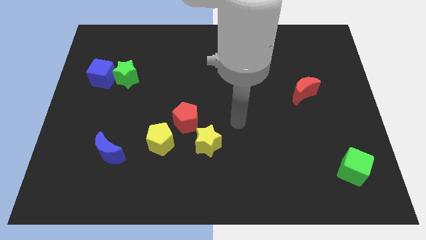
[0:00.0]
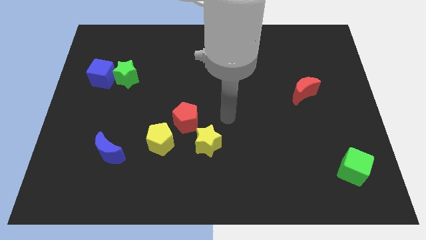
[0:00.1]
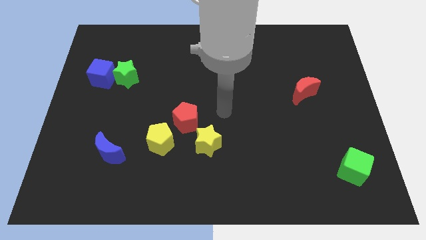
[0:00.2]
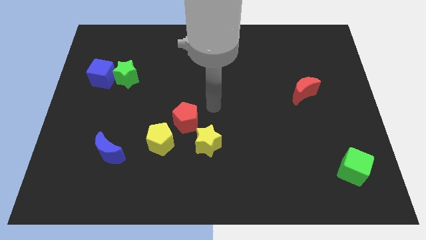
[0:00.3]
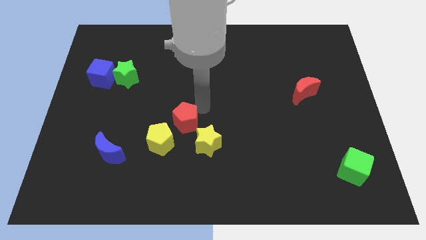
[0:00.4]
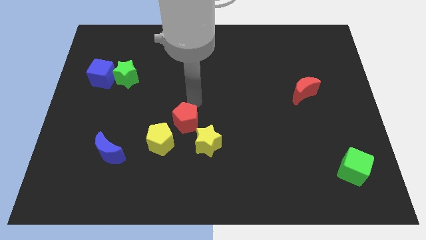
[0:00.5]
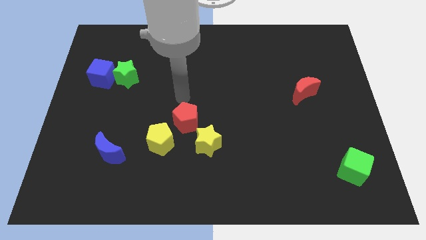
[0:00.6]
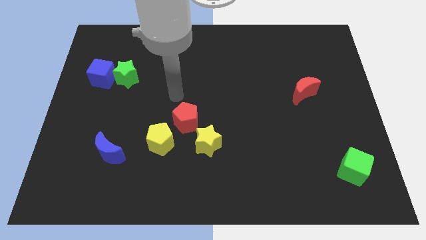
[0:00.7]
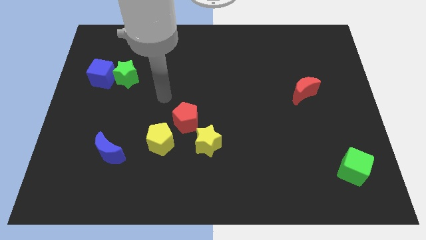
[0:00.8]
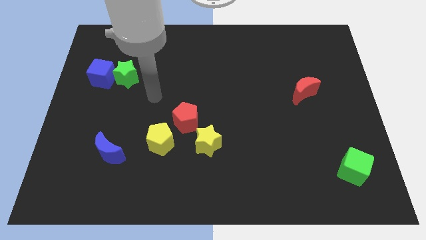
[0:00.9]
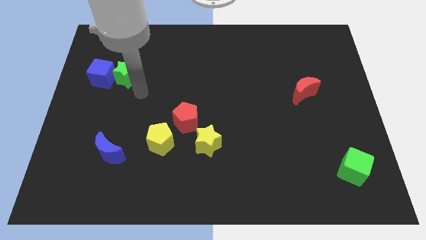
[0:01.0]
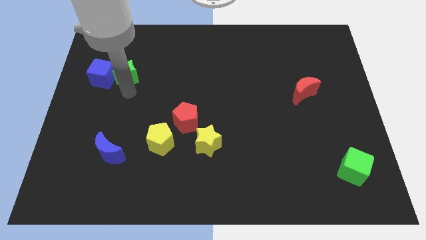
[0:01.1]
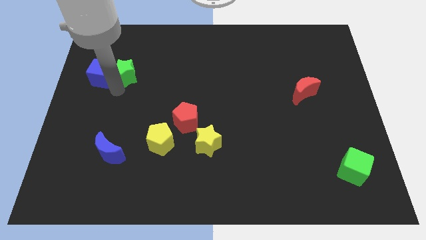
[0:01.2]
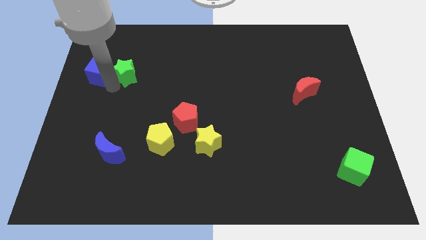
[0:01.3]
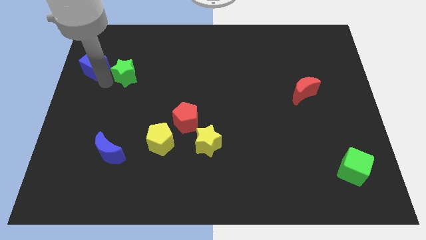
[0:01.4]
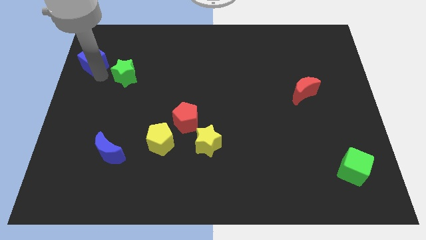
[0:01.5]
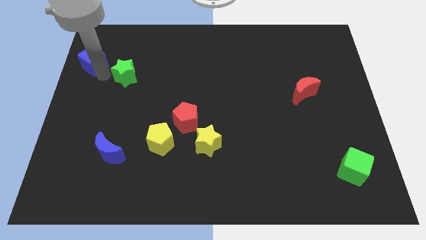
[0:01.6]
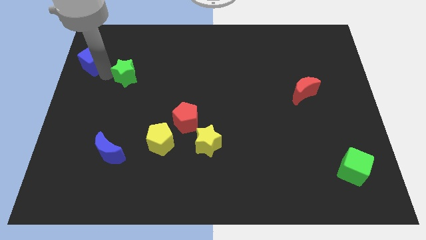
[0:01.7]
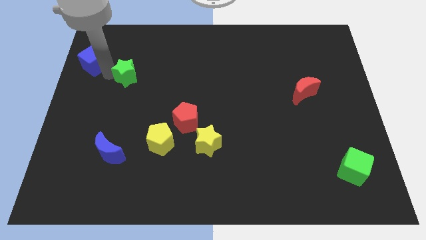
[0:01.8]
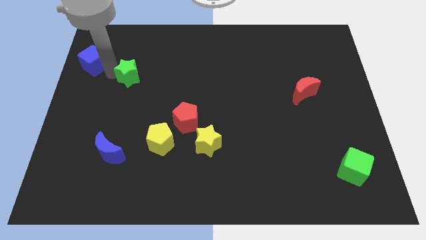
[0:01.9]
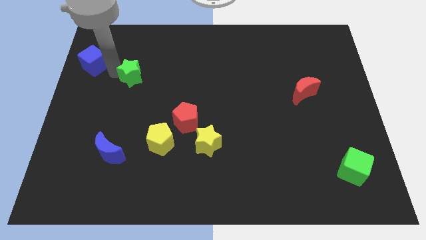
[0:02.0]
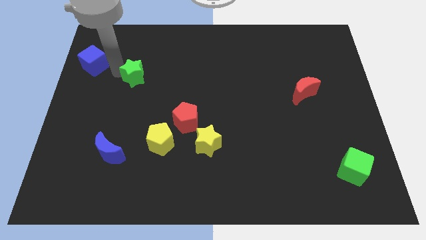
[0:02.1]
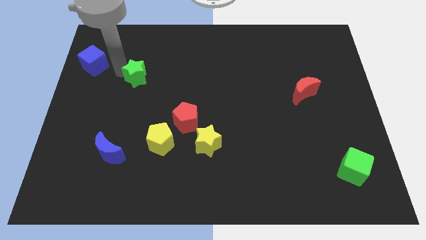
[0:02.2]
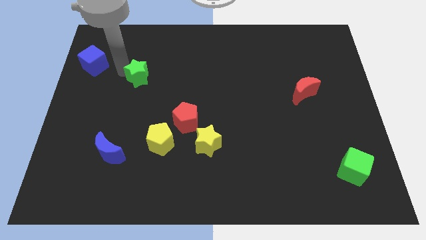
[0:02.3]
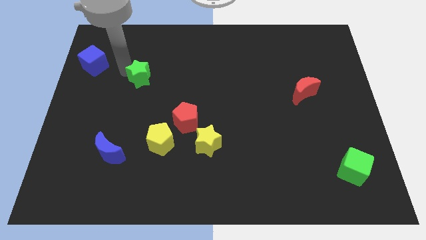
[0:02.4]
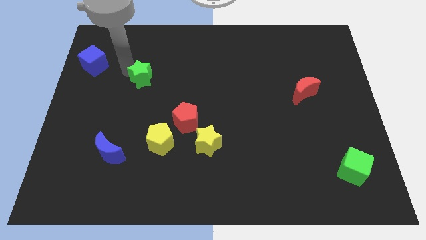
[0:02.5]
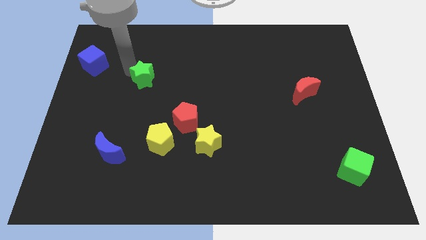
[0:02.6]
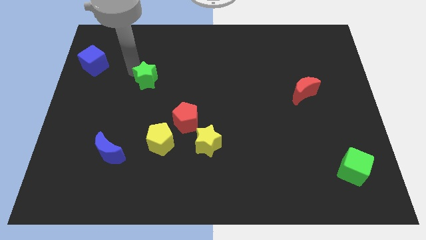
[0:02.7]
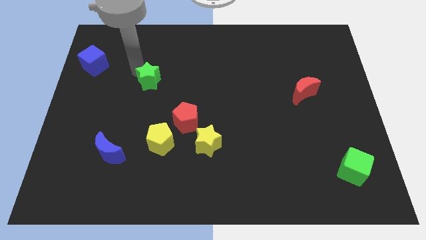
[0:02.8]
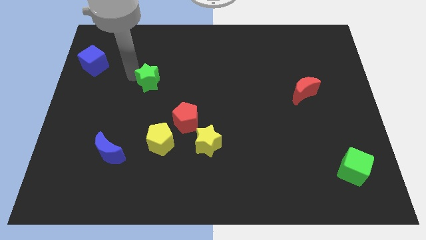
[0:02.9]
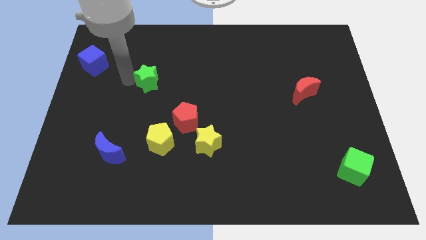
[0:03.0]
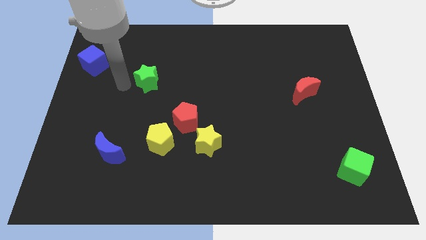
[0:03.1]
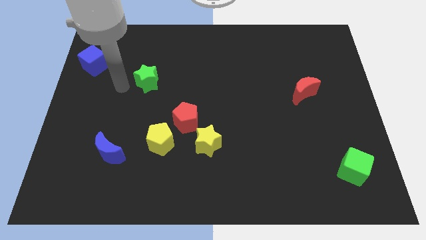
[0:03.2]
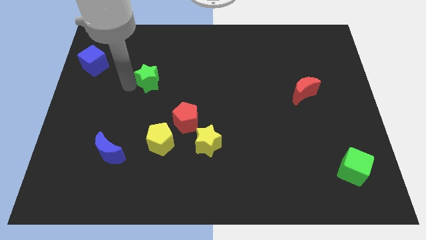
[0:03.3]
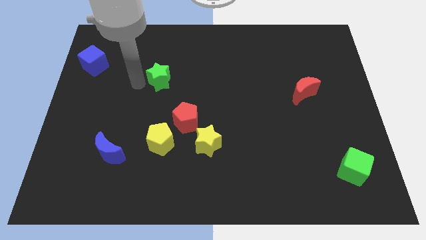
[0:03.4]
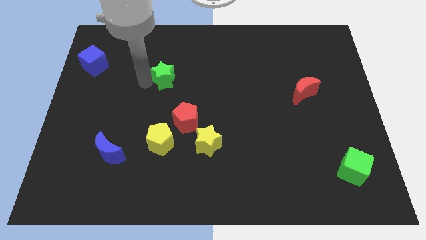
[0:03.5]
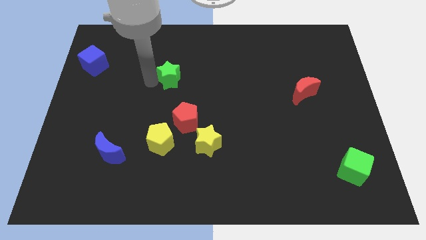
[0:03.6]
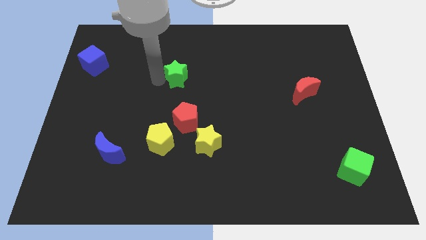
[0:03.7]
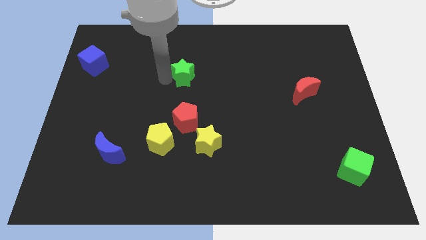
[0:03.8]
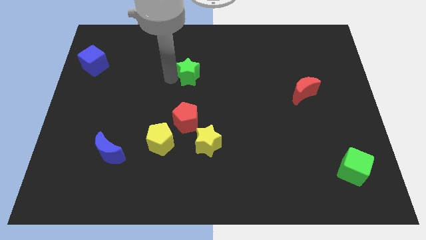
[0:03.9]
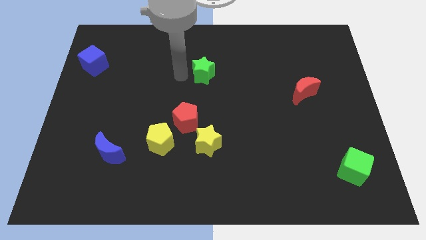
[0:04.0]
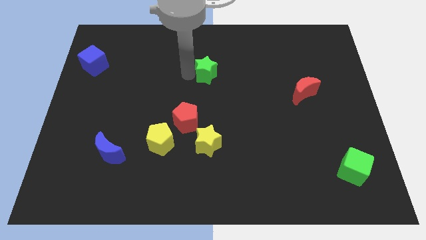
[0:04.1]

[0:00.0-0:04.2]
slide the green star to the right

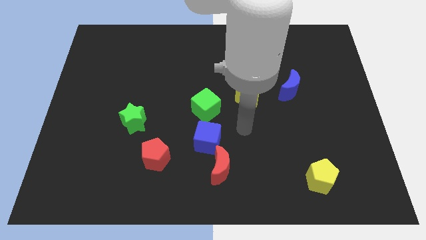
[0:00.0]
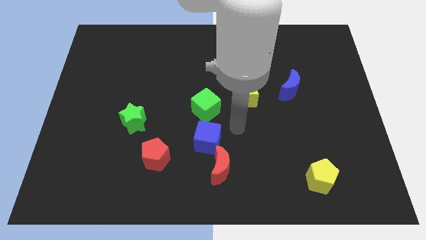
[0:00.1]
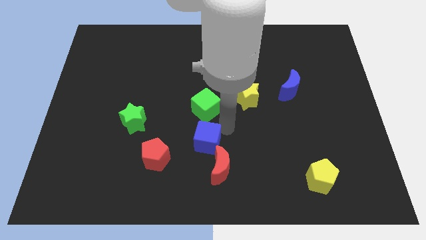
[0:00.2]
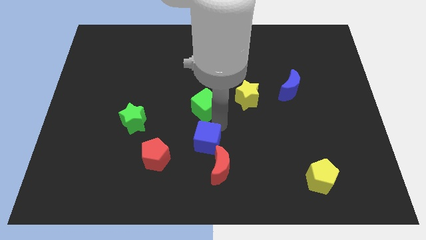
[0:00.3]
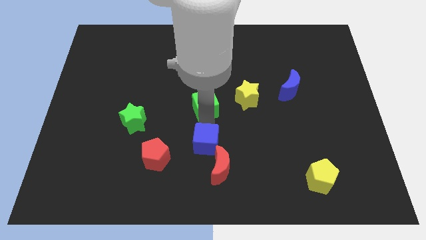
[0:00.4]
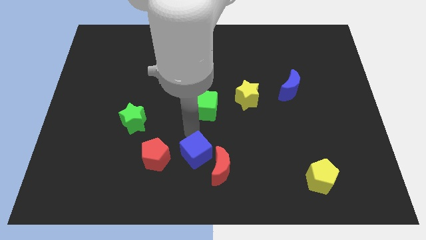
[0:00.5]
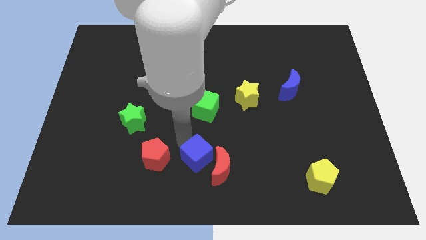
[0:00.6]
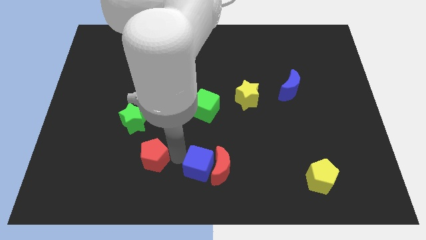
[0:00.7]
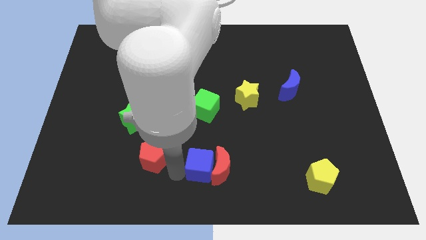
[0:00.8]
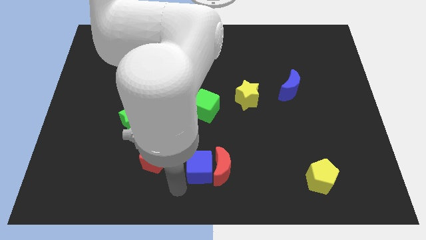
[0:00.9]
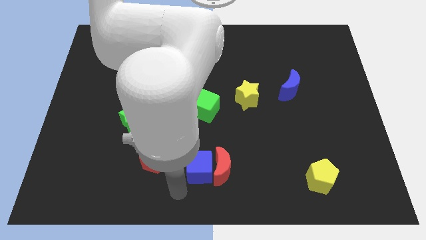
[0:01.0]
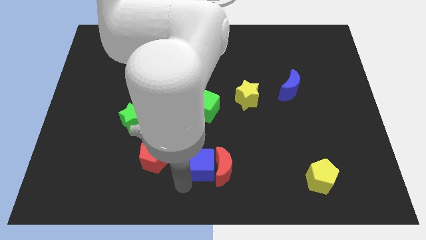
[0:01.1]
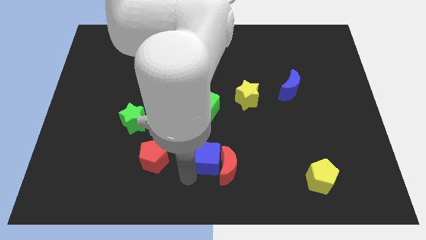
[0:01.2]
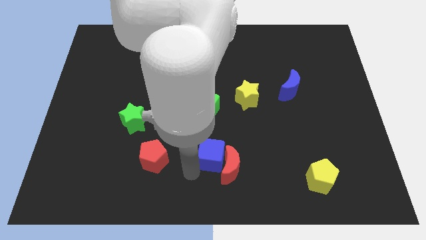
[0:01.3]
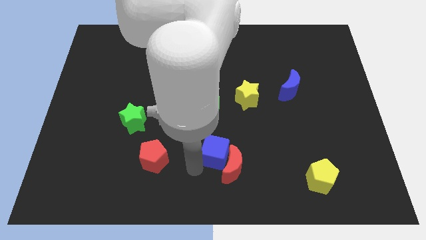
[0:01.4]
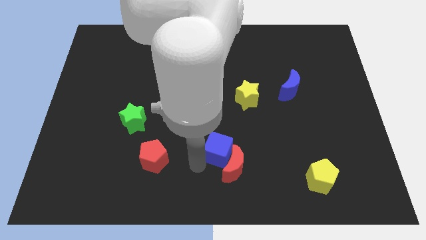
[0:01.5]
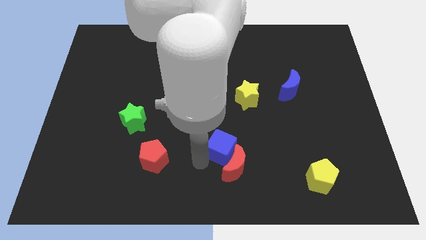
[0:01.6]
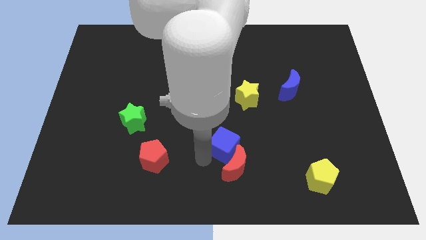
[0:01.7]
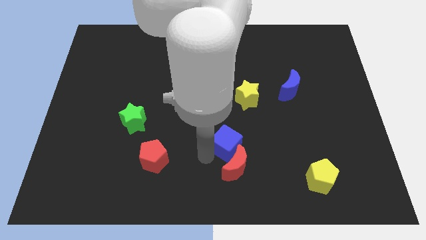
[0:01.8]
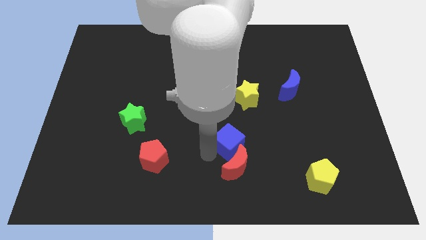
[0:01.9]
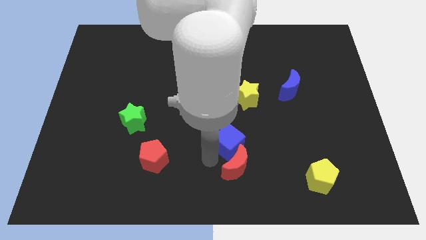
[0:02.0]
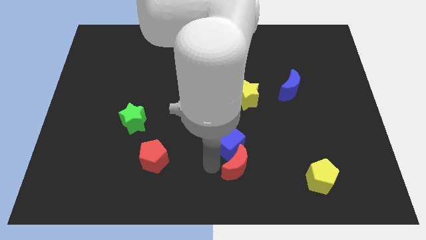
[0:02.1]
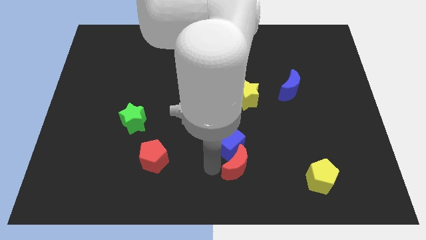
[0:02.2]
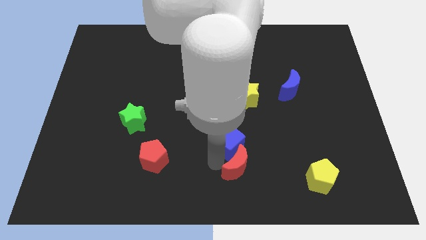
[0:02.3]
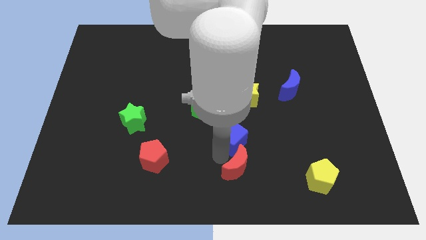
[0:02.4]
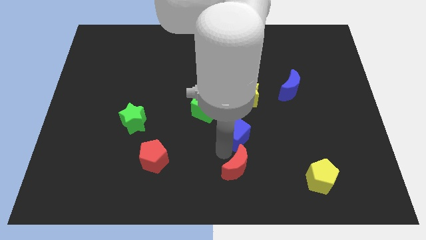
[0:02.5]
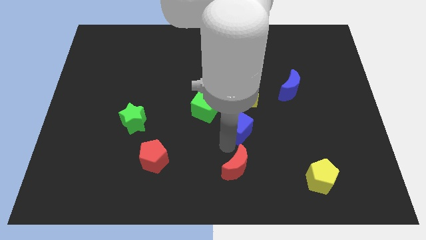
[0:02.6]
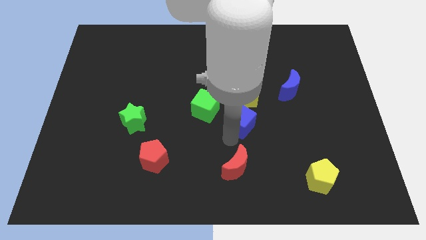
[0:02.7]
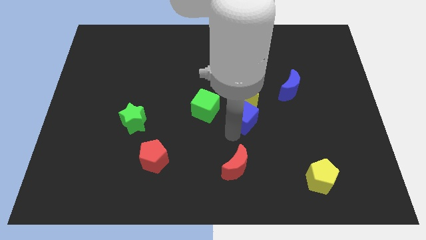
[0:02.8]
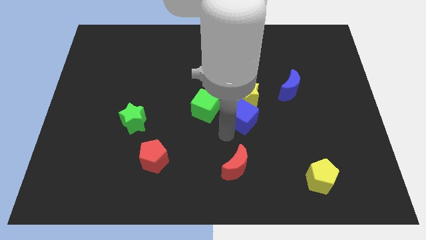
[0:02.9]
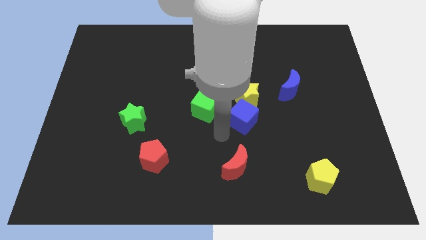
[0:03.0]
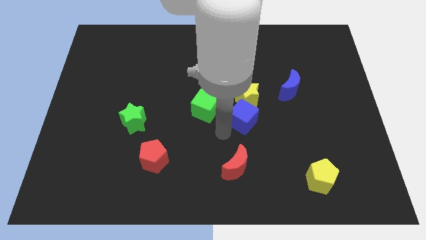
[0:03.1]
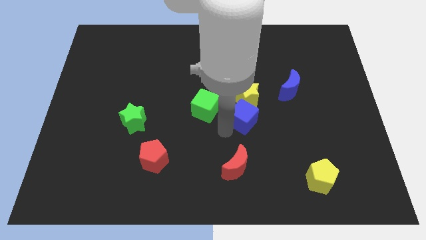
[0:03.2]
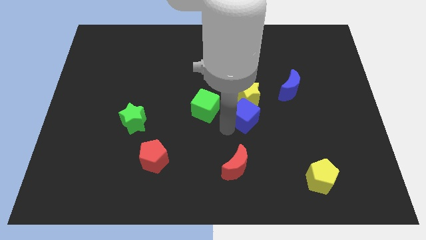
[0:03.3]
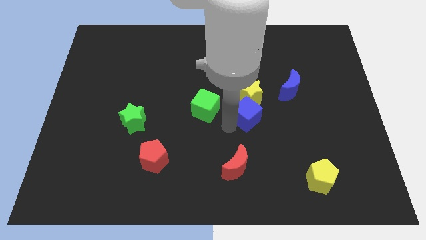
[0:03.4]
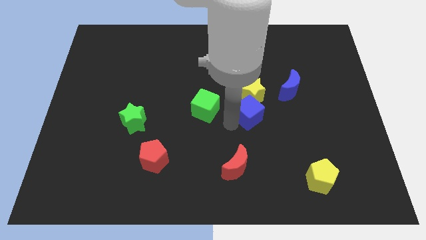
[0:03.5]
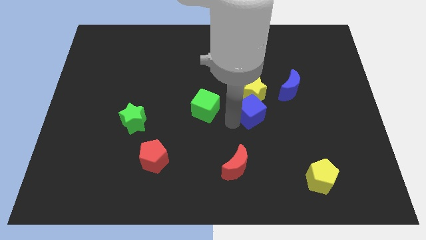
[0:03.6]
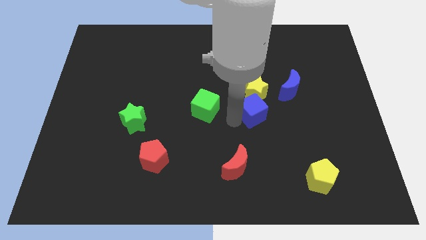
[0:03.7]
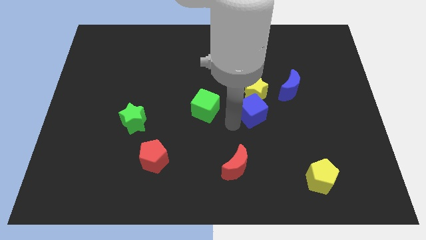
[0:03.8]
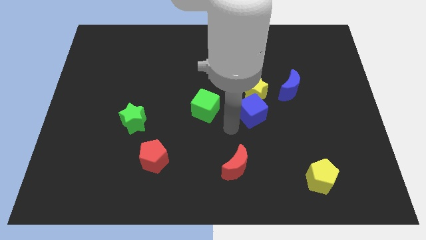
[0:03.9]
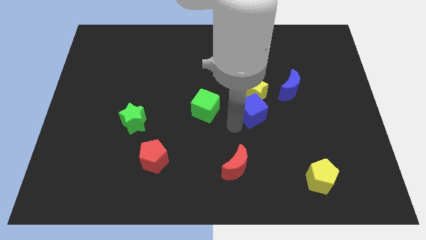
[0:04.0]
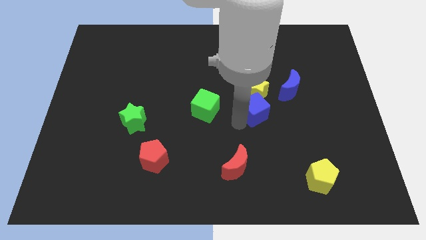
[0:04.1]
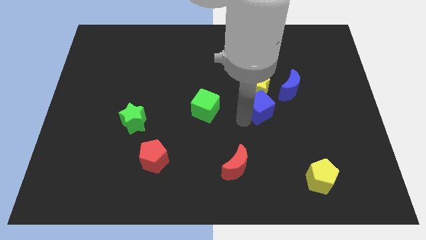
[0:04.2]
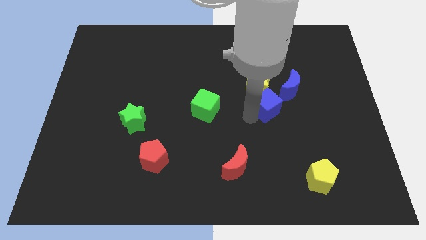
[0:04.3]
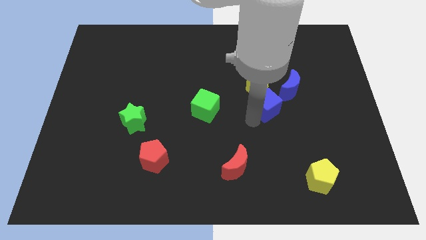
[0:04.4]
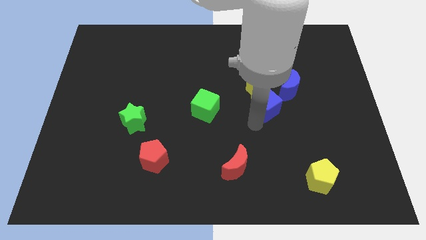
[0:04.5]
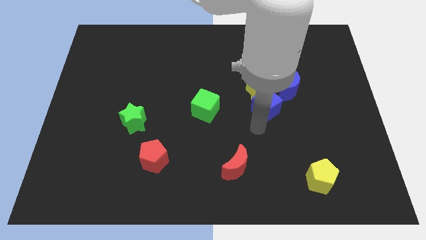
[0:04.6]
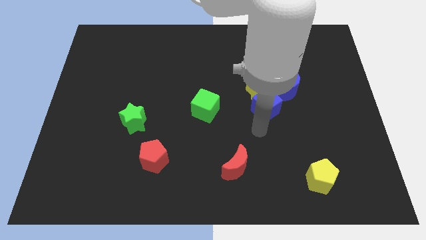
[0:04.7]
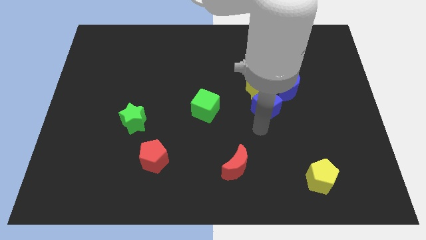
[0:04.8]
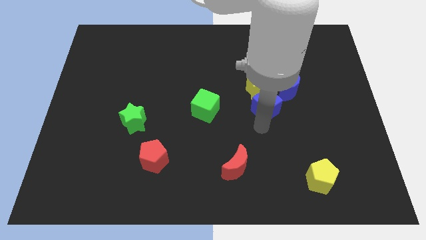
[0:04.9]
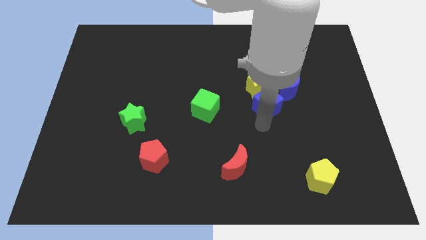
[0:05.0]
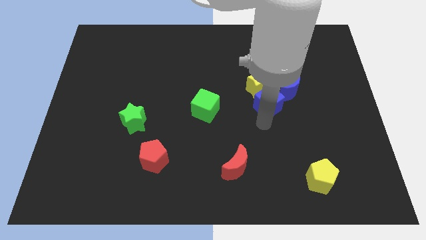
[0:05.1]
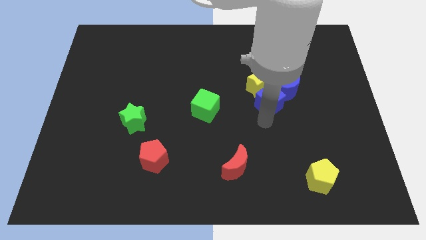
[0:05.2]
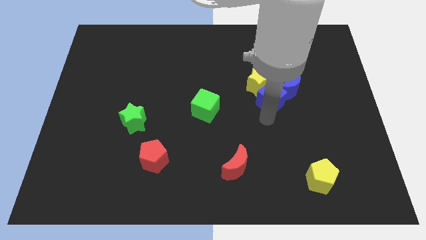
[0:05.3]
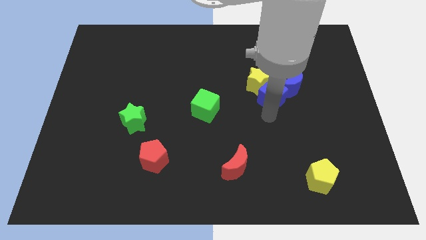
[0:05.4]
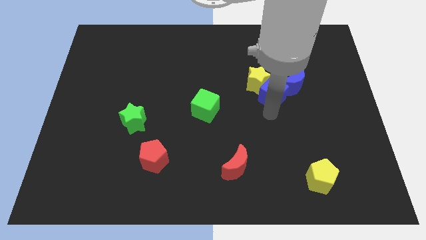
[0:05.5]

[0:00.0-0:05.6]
move the blue cube upwards and to the right diagonally
